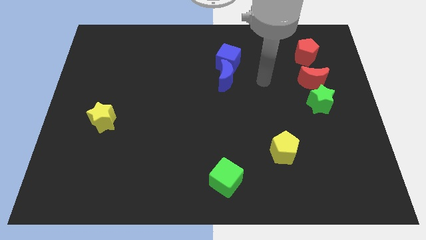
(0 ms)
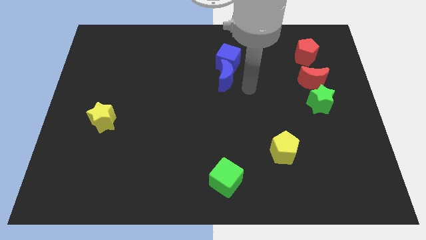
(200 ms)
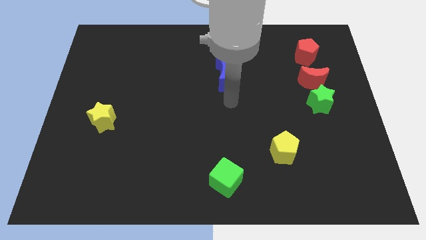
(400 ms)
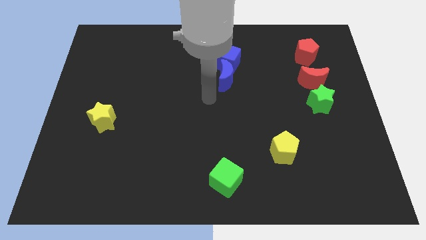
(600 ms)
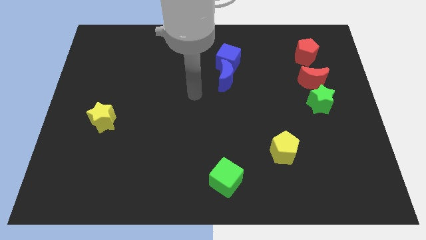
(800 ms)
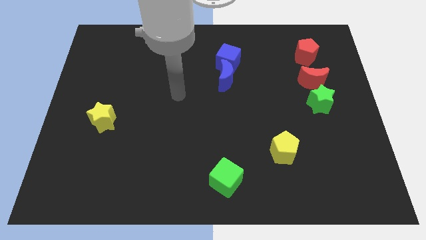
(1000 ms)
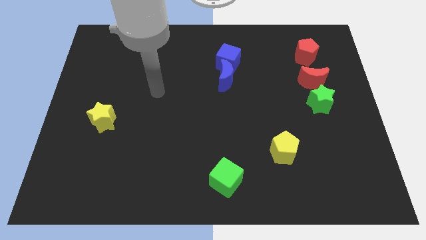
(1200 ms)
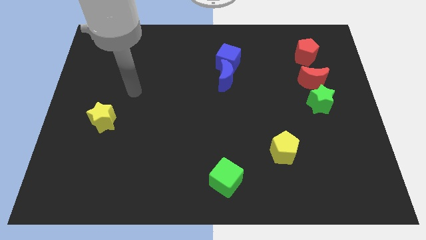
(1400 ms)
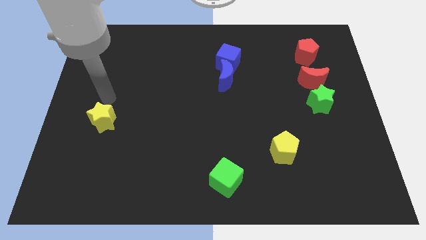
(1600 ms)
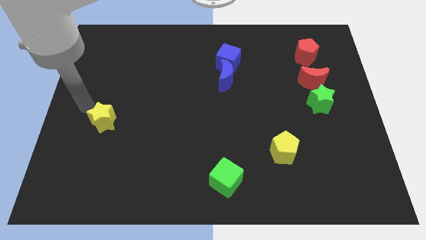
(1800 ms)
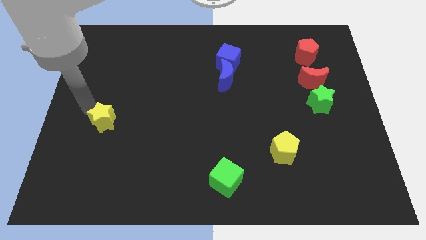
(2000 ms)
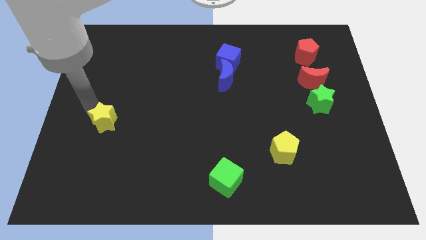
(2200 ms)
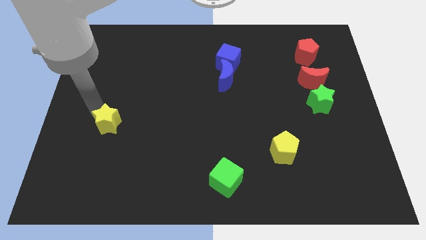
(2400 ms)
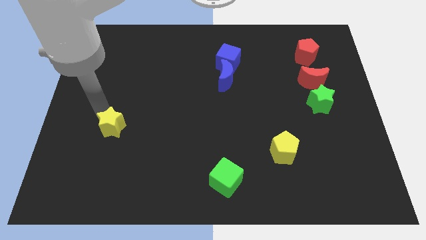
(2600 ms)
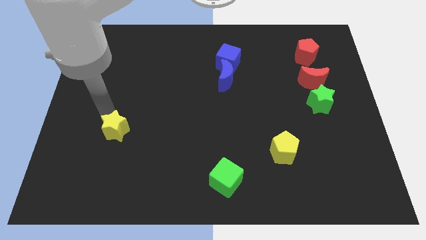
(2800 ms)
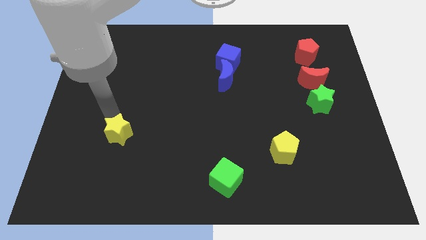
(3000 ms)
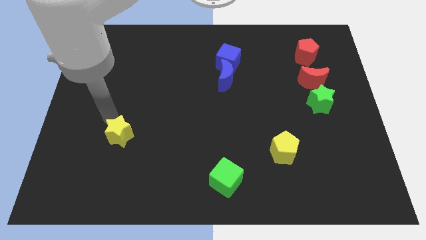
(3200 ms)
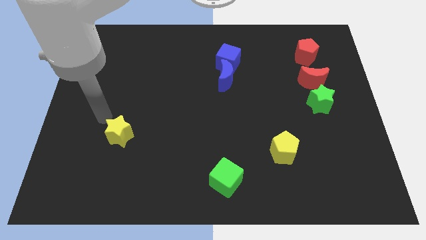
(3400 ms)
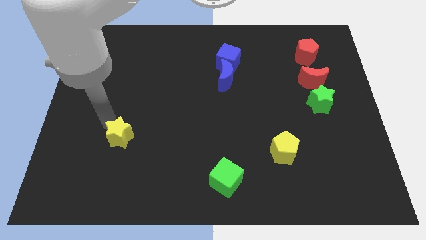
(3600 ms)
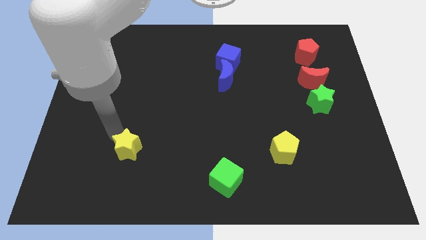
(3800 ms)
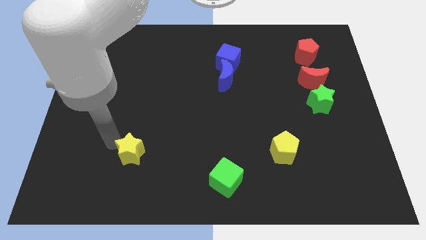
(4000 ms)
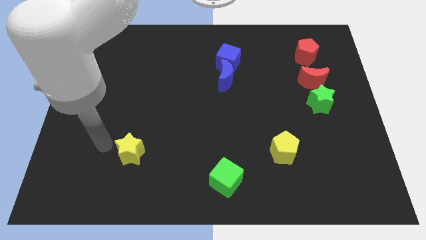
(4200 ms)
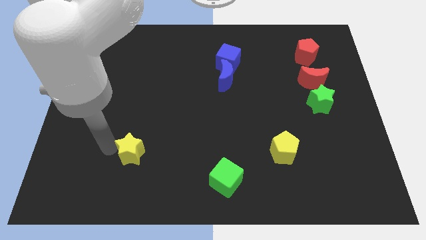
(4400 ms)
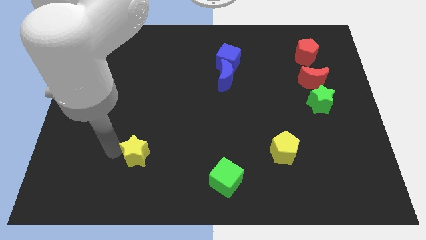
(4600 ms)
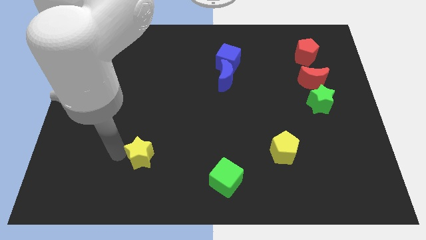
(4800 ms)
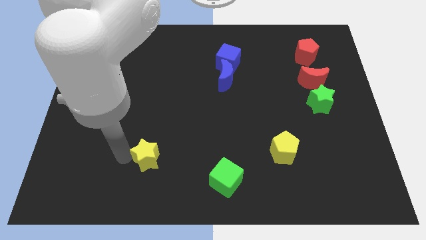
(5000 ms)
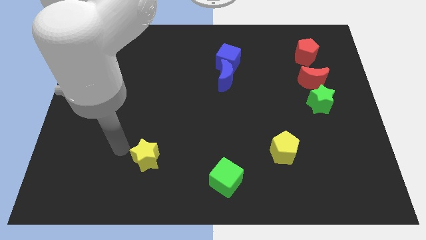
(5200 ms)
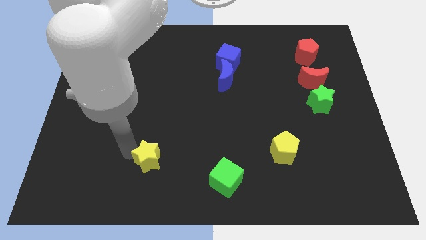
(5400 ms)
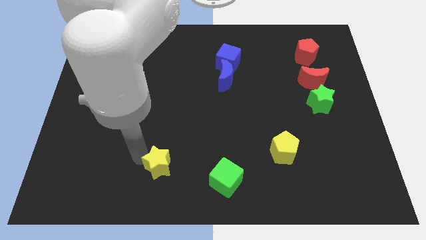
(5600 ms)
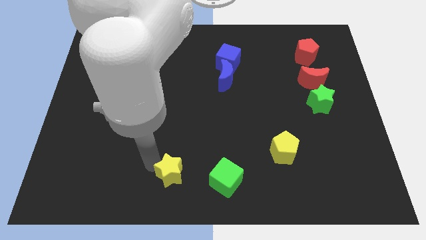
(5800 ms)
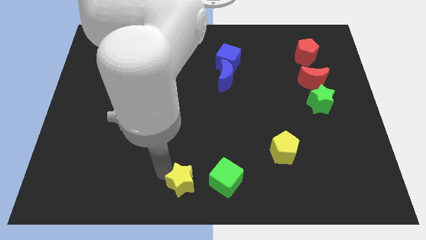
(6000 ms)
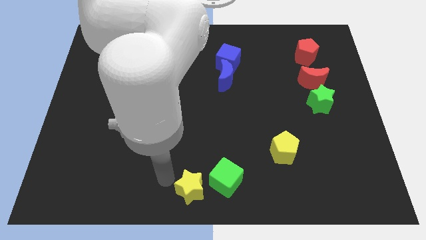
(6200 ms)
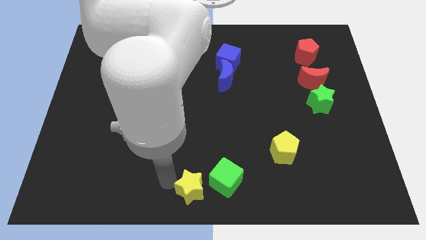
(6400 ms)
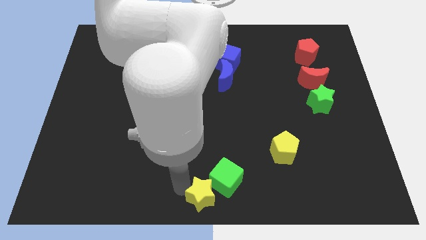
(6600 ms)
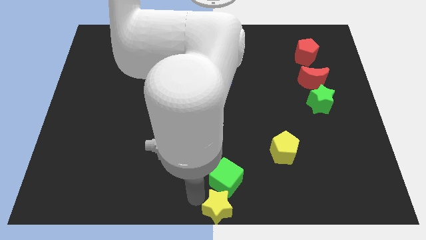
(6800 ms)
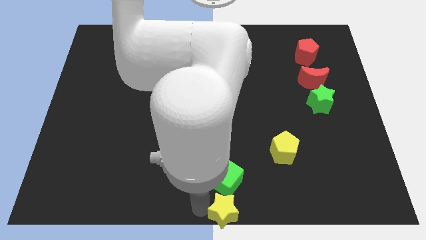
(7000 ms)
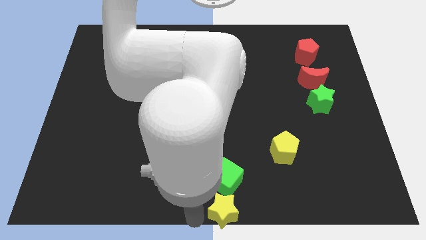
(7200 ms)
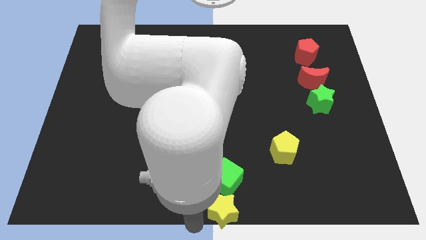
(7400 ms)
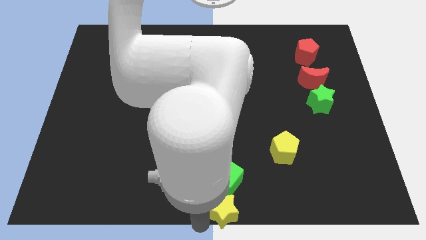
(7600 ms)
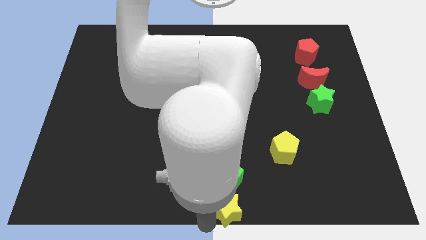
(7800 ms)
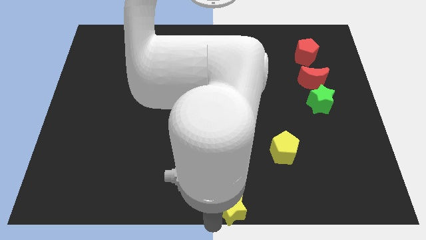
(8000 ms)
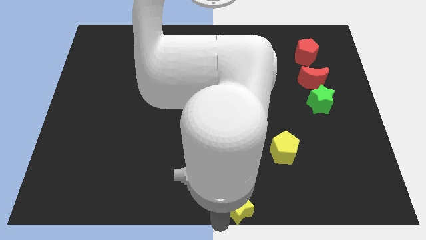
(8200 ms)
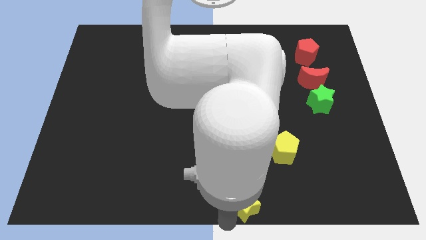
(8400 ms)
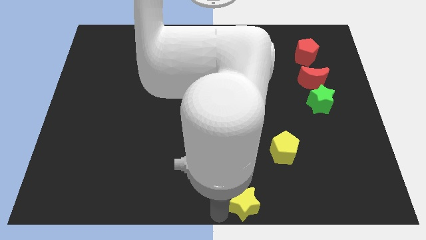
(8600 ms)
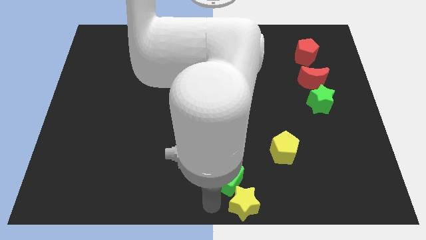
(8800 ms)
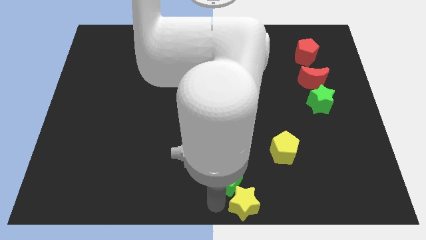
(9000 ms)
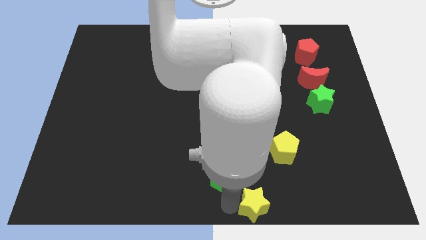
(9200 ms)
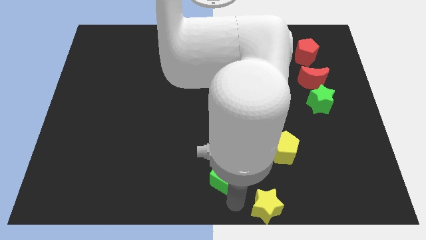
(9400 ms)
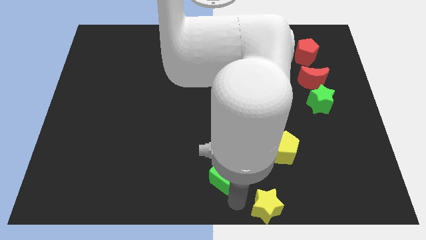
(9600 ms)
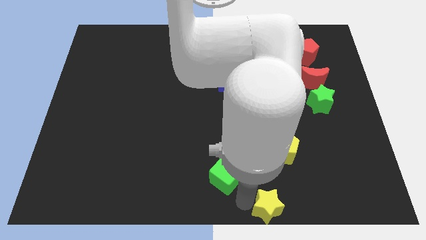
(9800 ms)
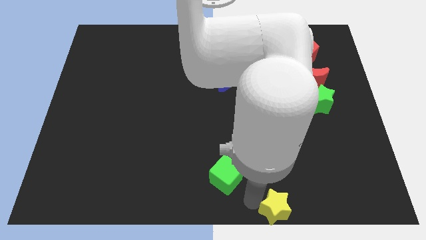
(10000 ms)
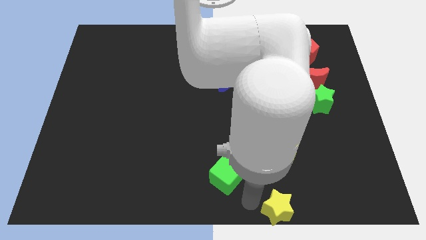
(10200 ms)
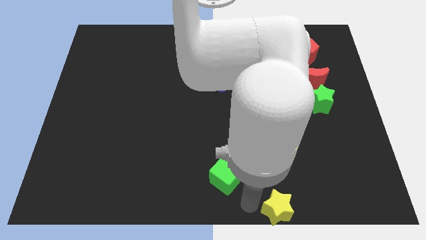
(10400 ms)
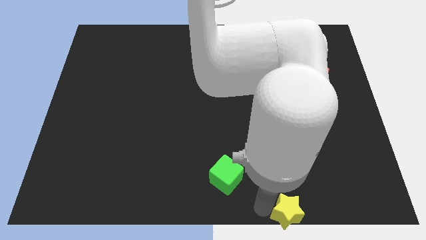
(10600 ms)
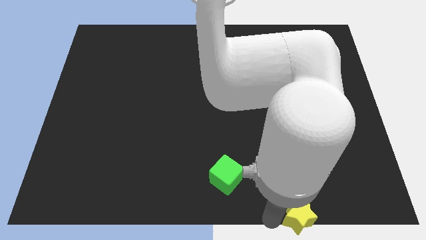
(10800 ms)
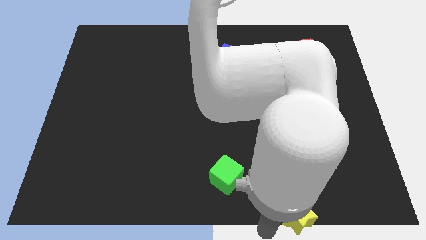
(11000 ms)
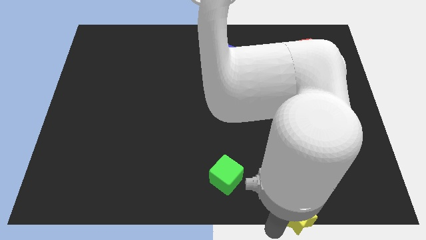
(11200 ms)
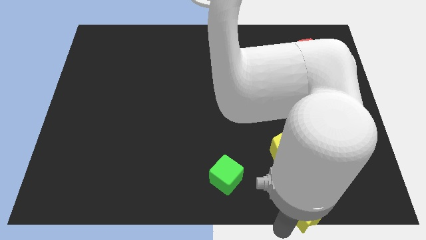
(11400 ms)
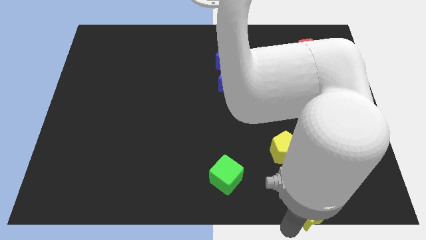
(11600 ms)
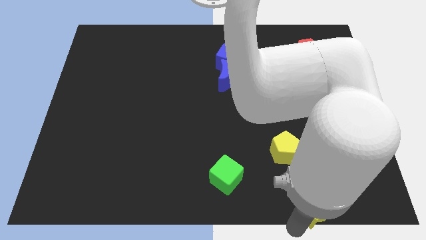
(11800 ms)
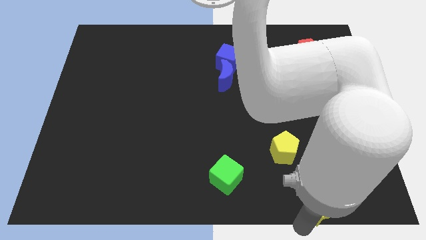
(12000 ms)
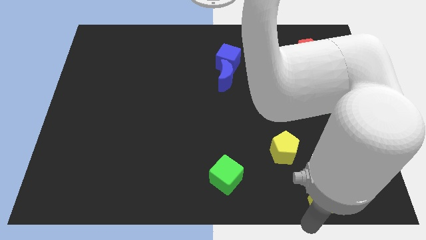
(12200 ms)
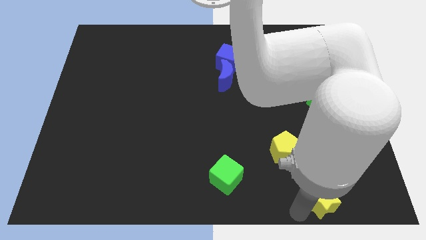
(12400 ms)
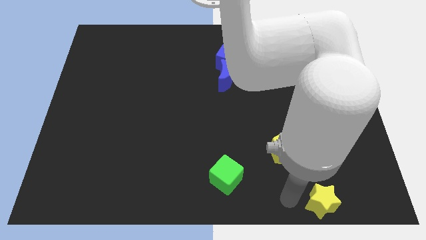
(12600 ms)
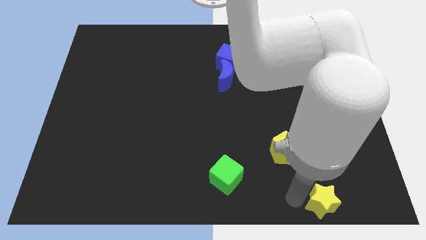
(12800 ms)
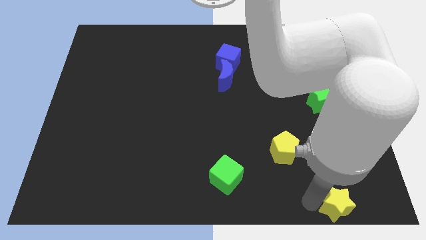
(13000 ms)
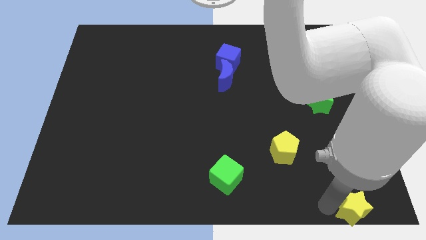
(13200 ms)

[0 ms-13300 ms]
move the yellow star to the bottom right corner
